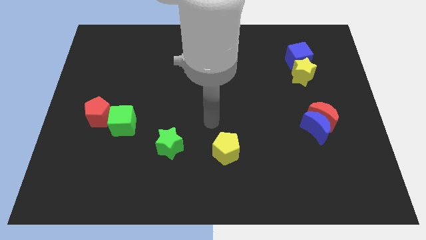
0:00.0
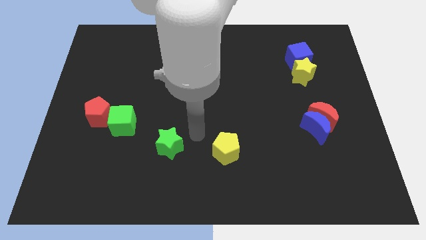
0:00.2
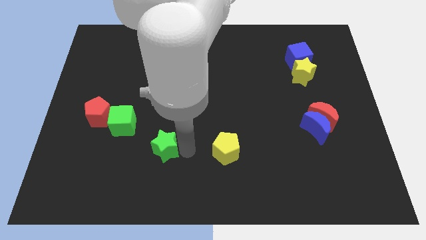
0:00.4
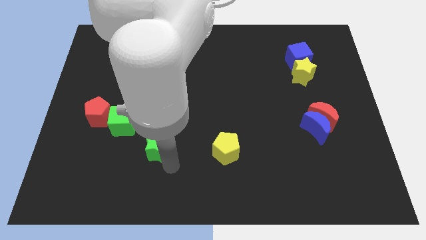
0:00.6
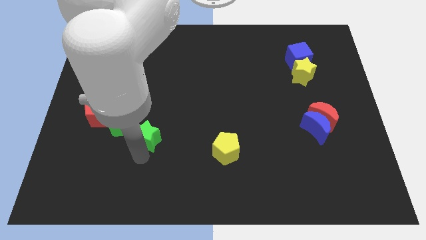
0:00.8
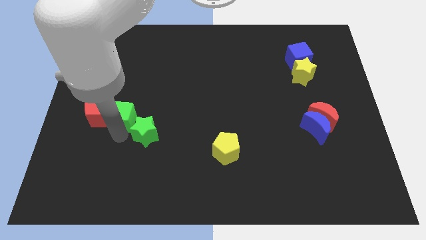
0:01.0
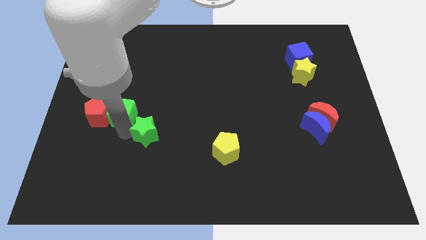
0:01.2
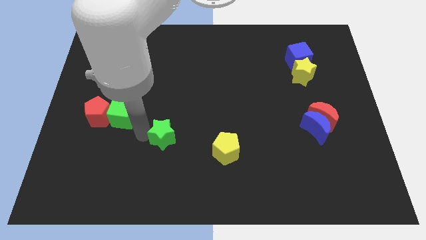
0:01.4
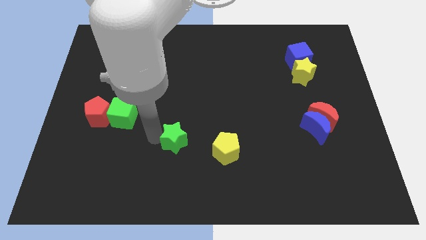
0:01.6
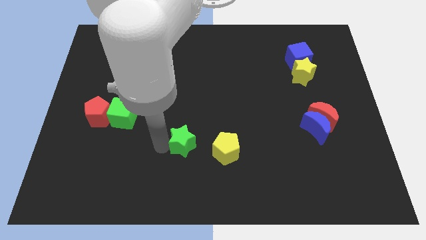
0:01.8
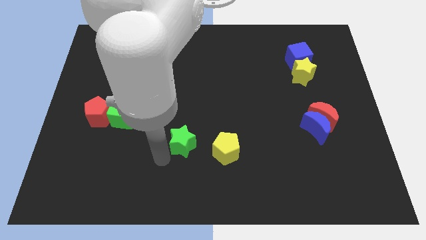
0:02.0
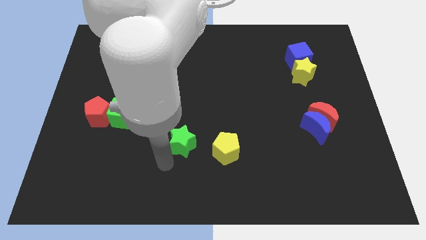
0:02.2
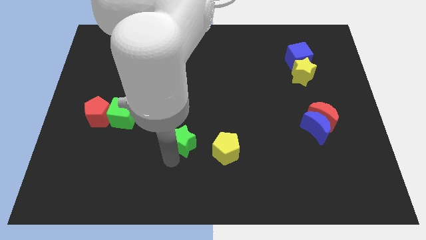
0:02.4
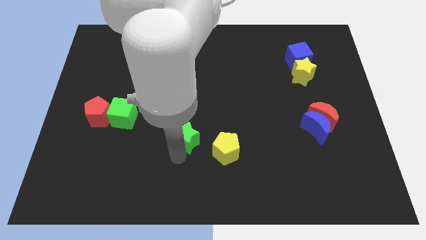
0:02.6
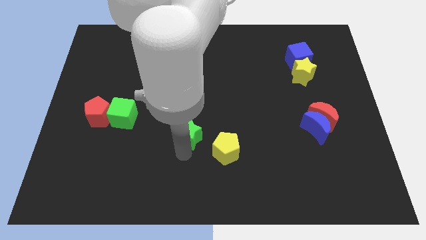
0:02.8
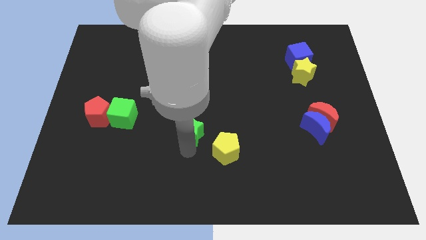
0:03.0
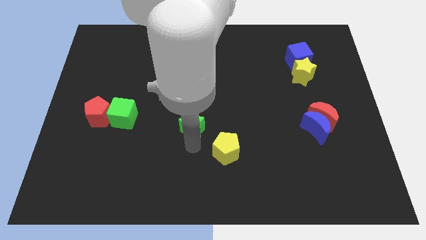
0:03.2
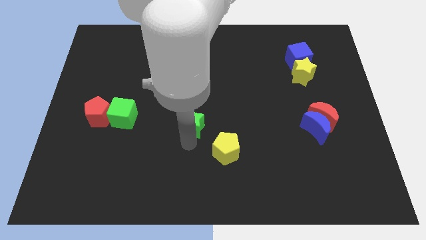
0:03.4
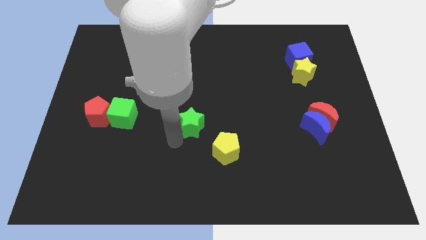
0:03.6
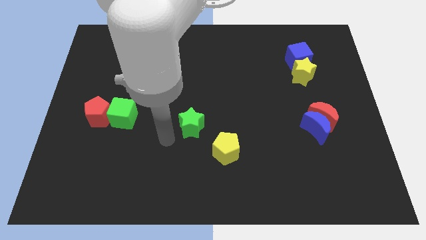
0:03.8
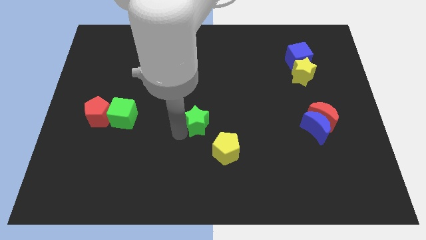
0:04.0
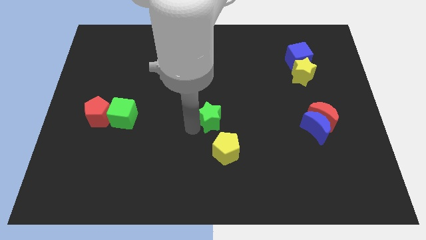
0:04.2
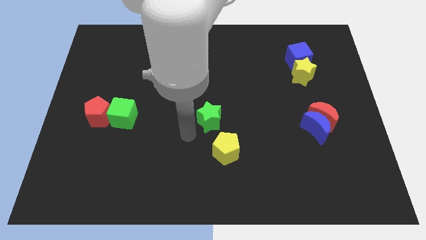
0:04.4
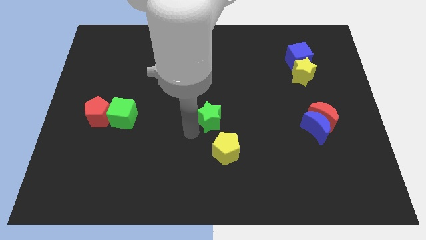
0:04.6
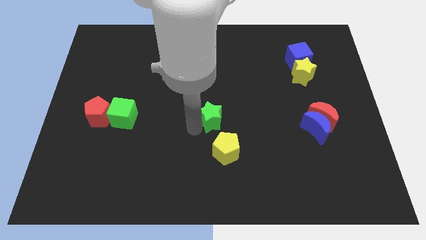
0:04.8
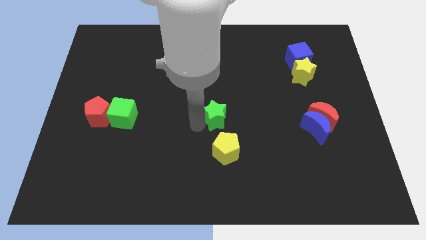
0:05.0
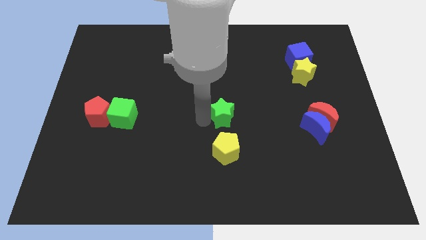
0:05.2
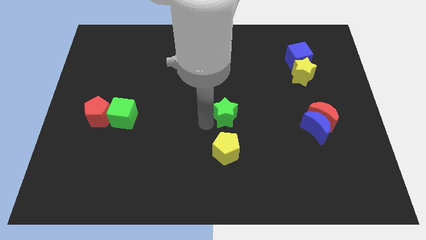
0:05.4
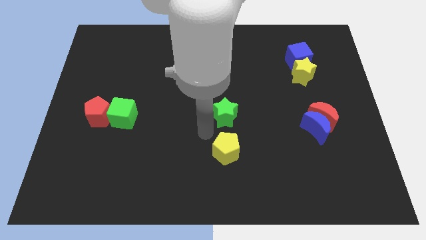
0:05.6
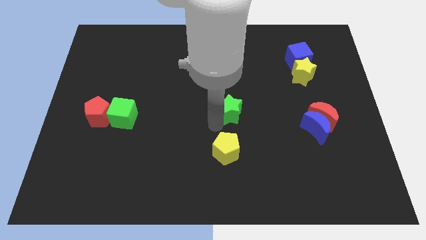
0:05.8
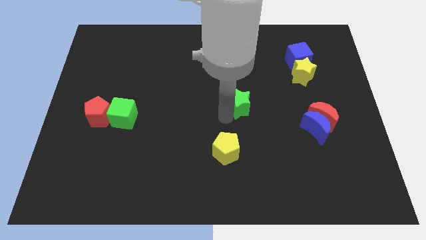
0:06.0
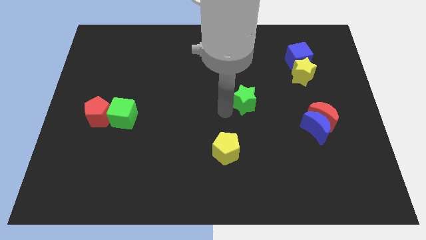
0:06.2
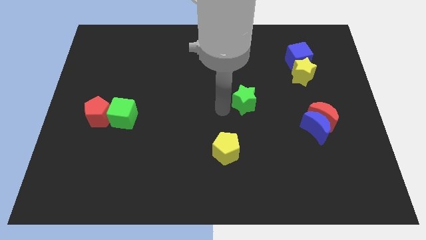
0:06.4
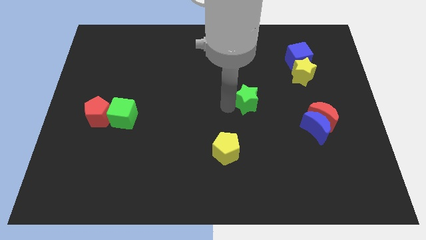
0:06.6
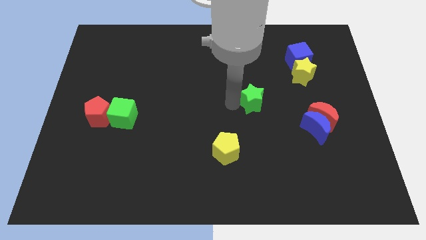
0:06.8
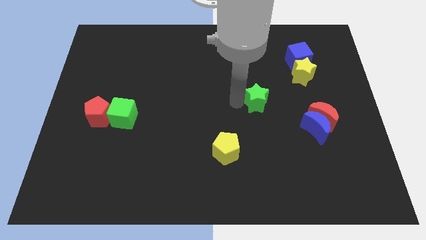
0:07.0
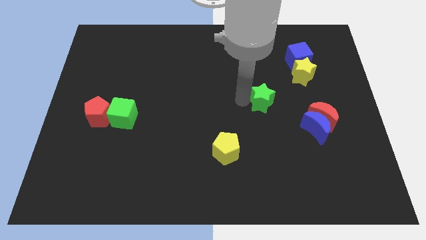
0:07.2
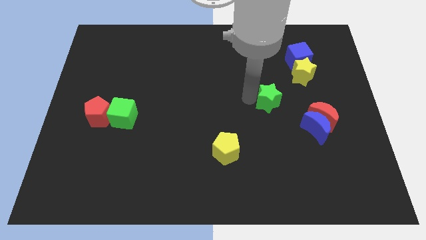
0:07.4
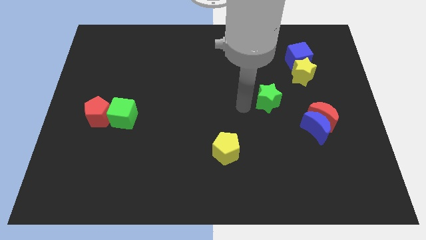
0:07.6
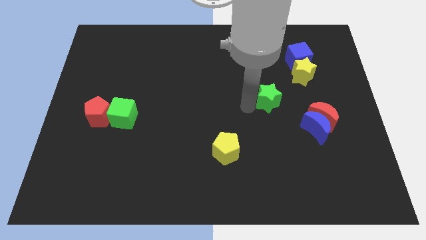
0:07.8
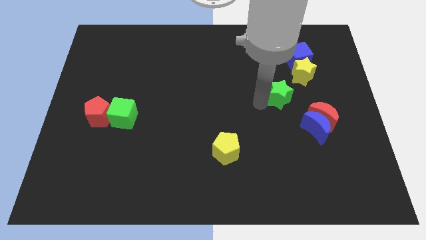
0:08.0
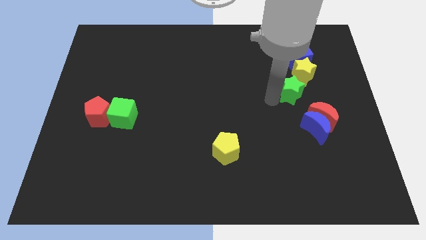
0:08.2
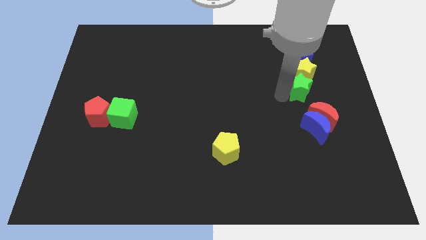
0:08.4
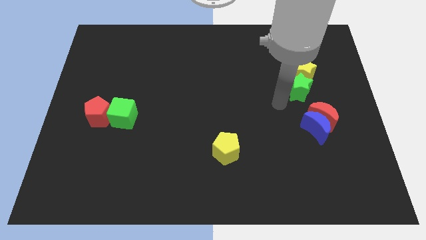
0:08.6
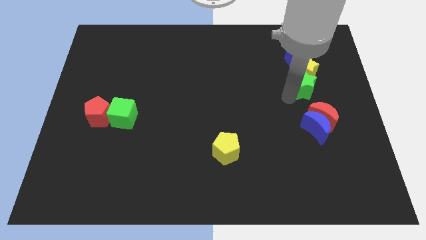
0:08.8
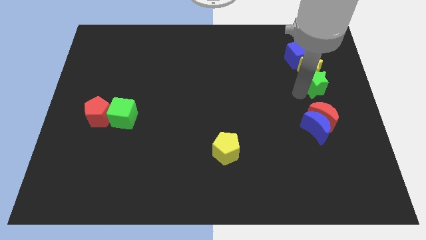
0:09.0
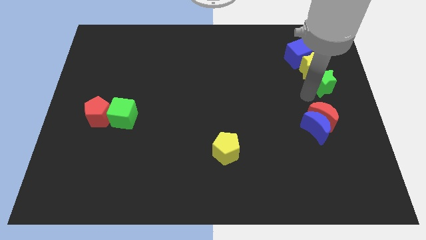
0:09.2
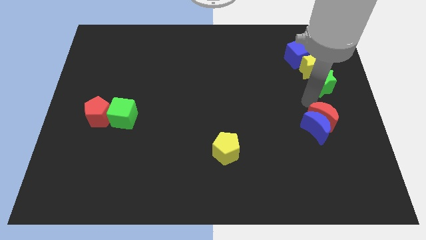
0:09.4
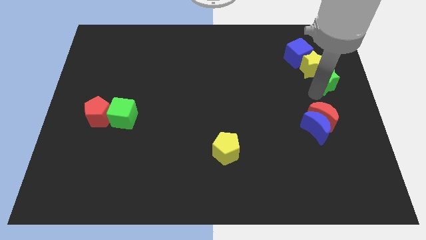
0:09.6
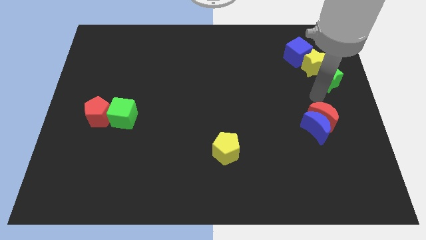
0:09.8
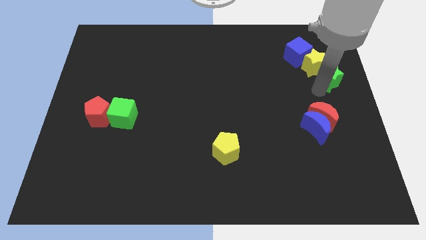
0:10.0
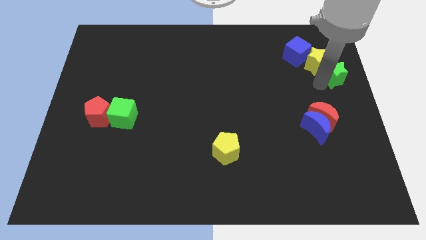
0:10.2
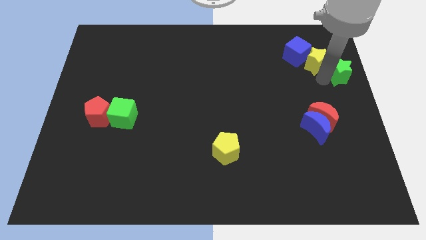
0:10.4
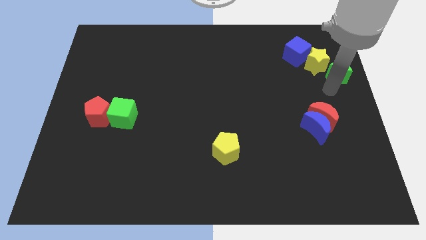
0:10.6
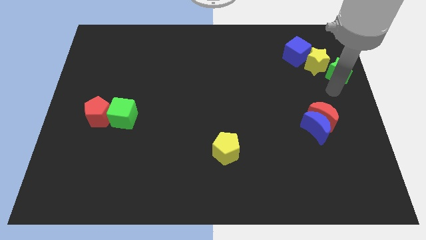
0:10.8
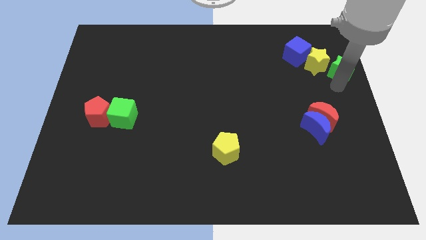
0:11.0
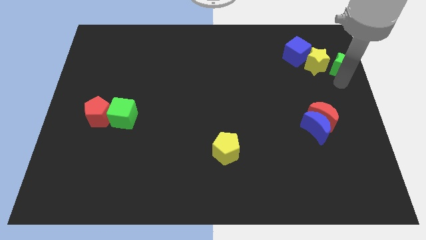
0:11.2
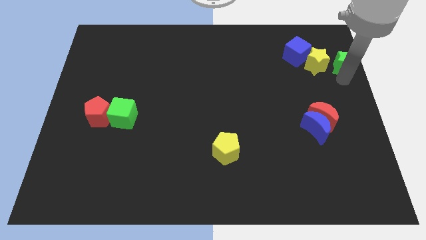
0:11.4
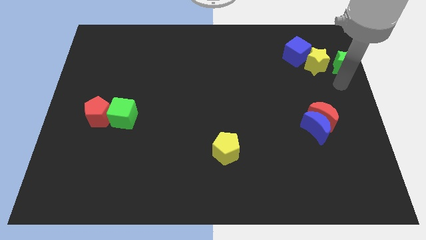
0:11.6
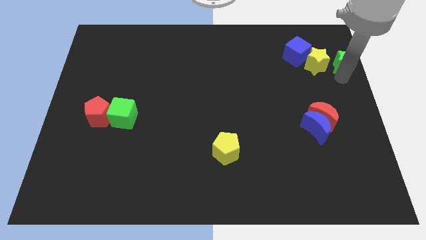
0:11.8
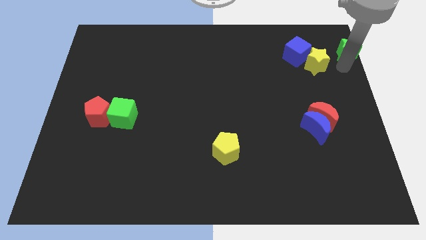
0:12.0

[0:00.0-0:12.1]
slide the green star to the upper right corner

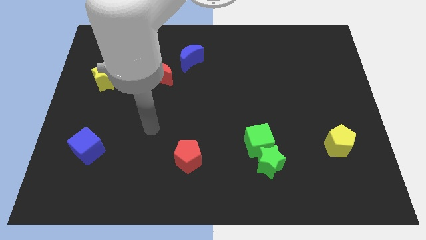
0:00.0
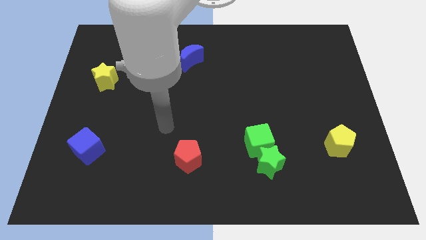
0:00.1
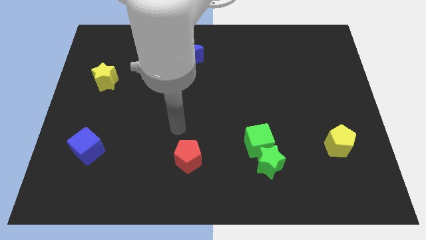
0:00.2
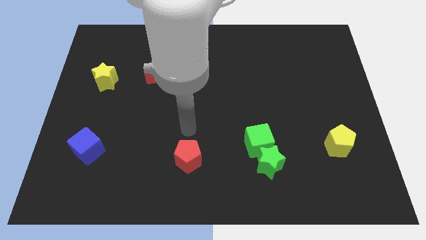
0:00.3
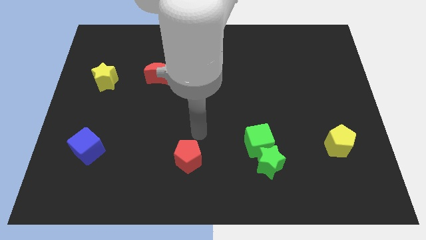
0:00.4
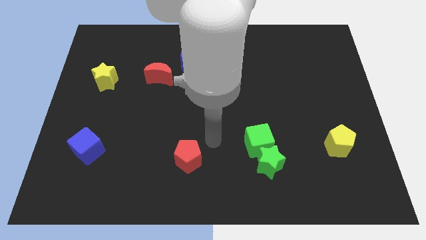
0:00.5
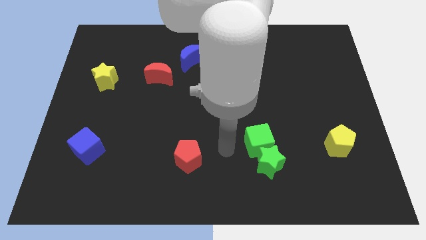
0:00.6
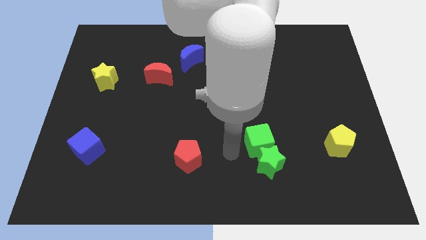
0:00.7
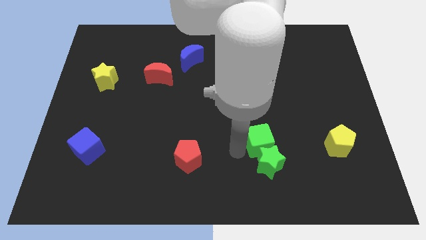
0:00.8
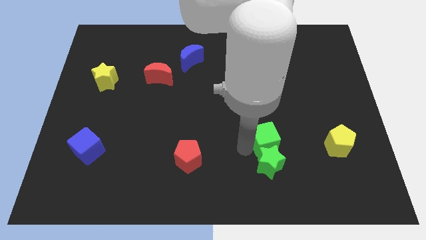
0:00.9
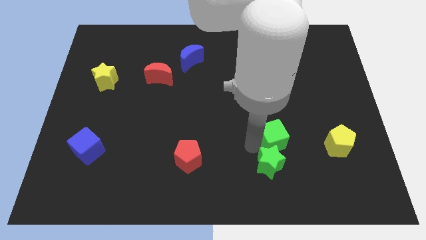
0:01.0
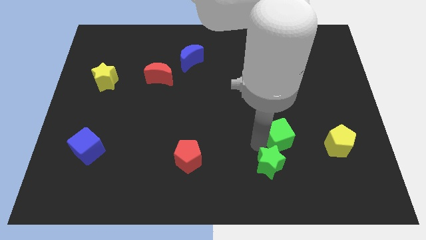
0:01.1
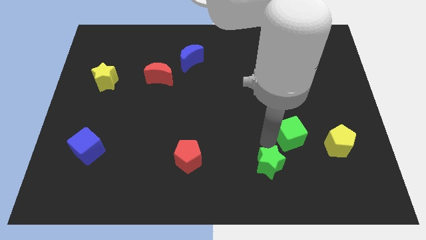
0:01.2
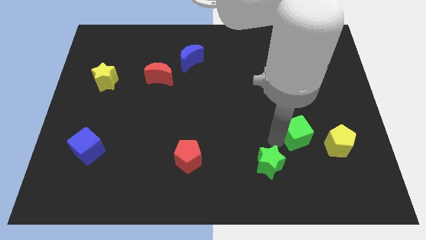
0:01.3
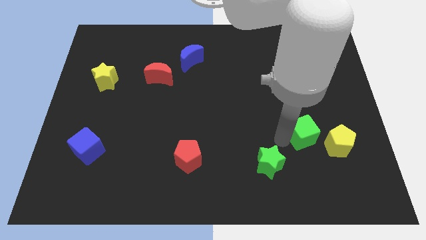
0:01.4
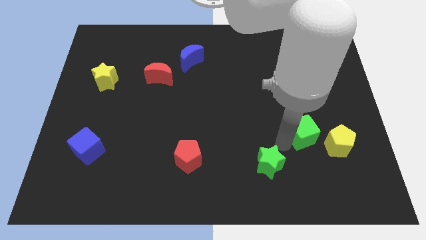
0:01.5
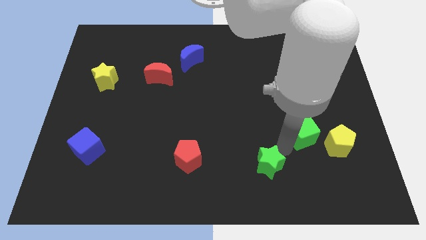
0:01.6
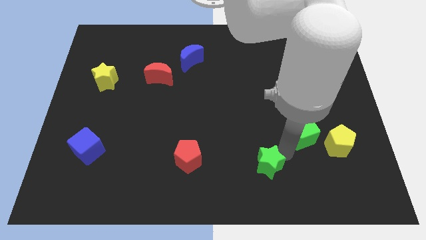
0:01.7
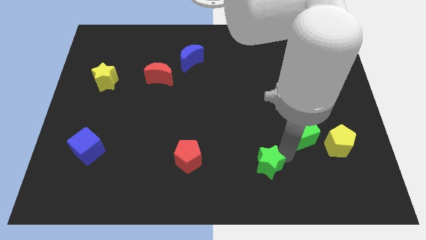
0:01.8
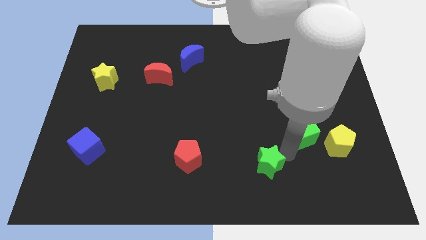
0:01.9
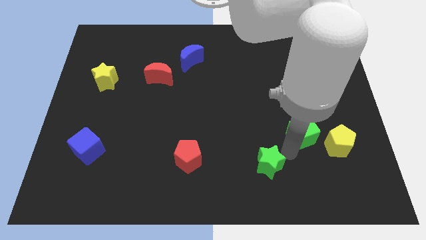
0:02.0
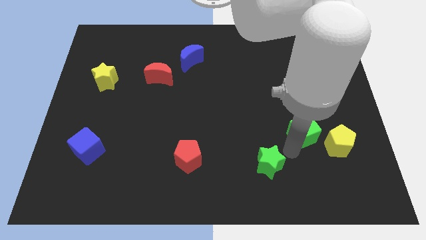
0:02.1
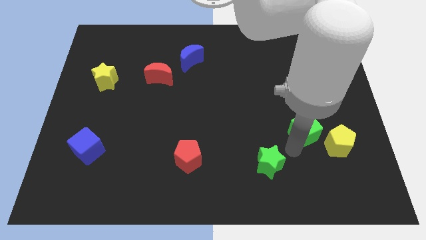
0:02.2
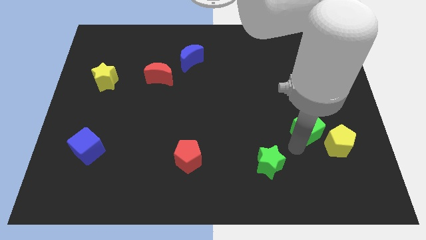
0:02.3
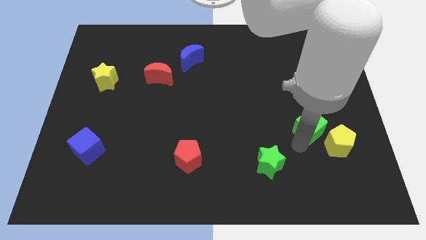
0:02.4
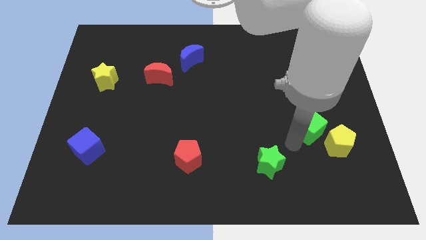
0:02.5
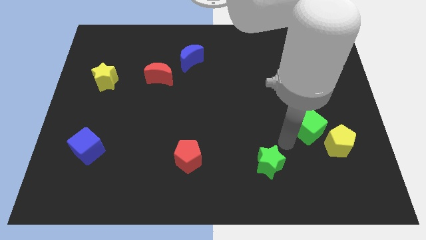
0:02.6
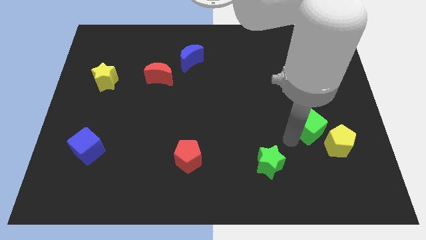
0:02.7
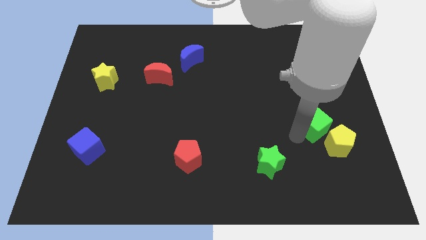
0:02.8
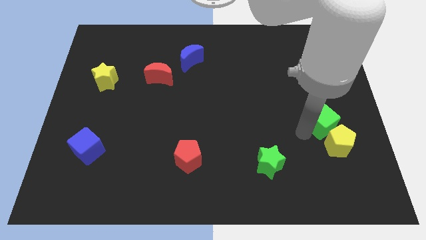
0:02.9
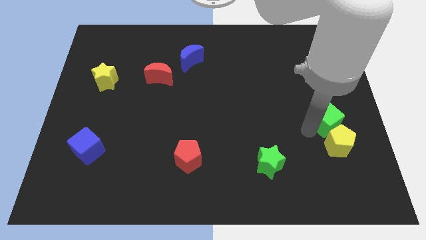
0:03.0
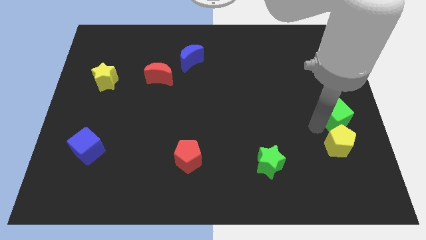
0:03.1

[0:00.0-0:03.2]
put the green cube to the center right
